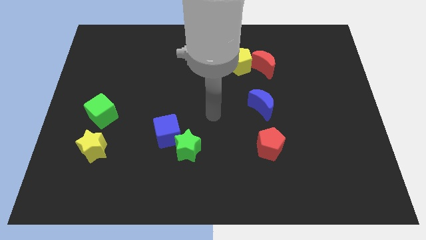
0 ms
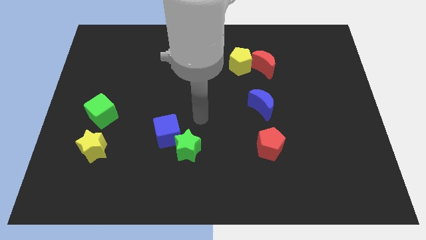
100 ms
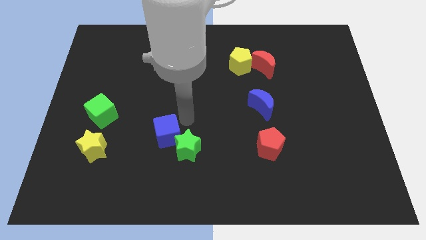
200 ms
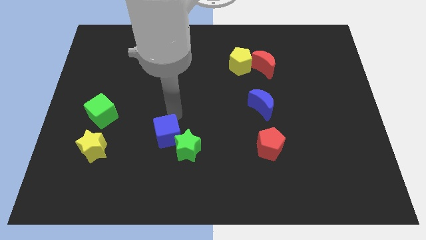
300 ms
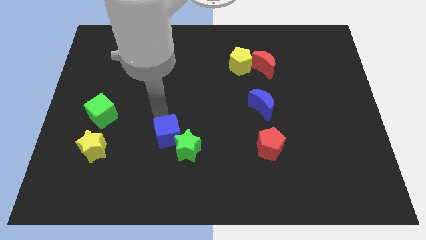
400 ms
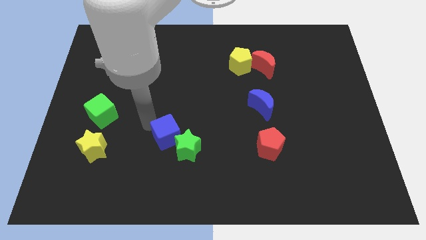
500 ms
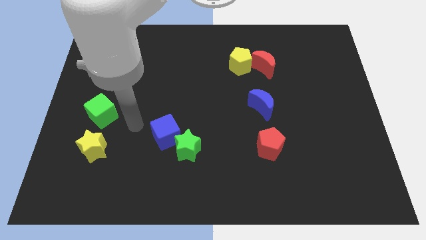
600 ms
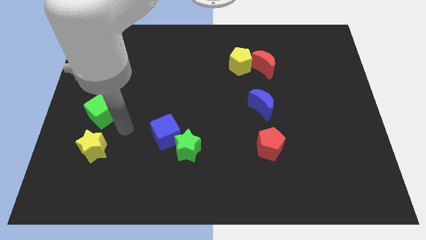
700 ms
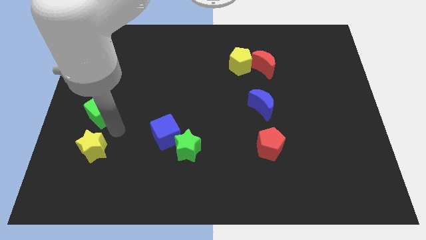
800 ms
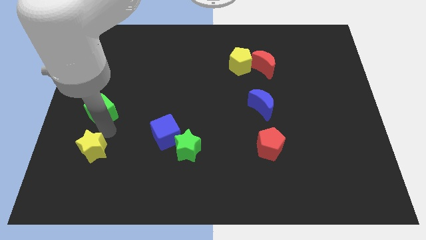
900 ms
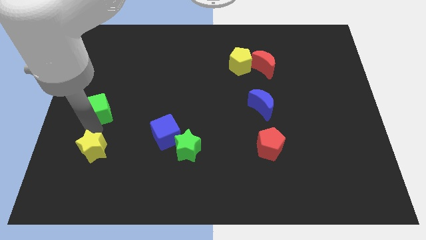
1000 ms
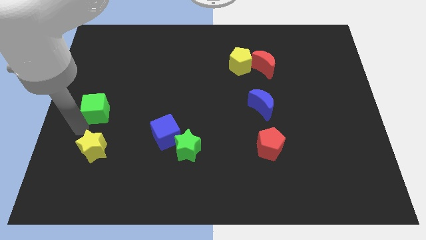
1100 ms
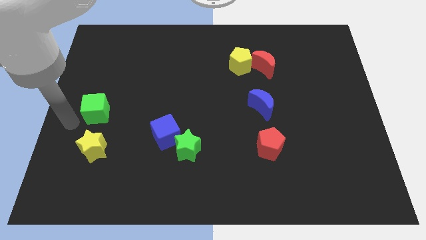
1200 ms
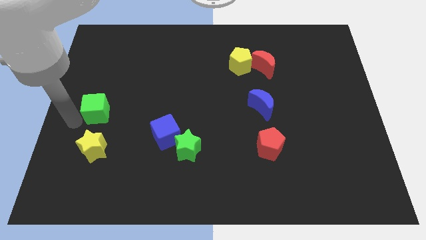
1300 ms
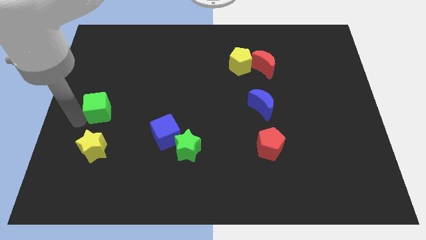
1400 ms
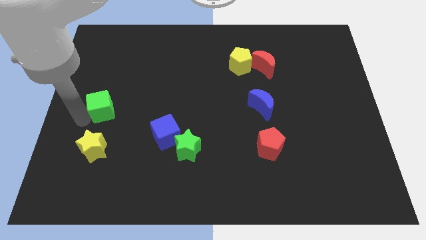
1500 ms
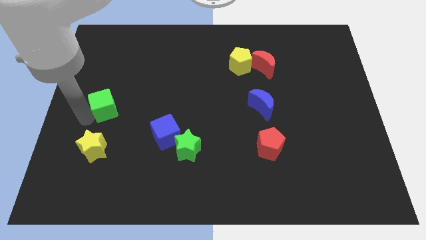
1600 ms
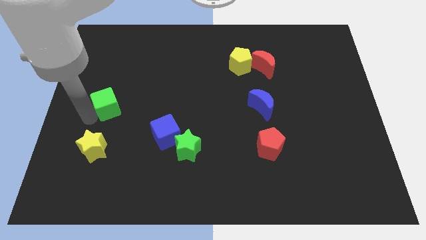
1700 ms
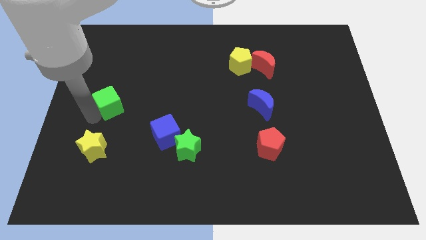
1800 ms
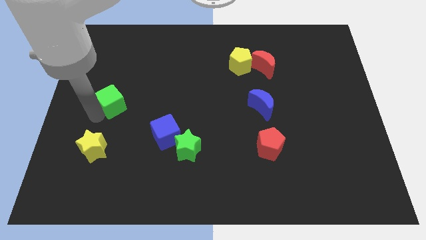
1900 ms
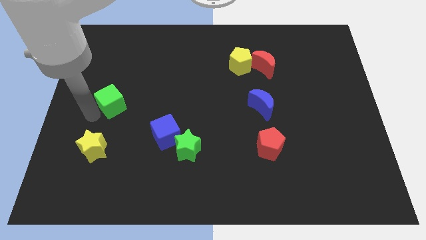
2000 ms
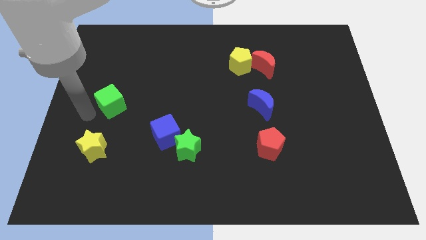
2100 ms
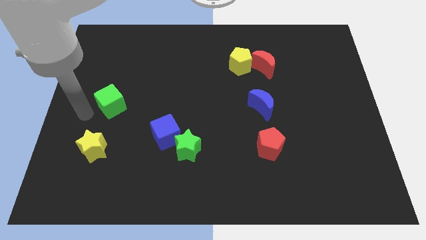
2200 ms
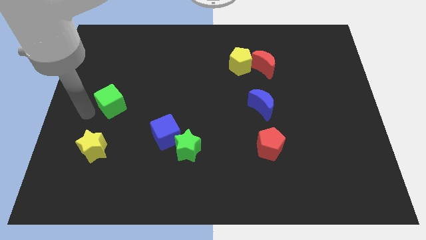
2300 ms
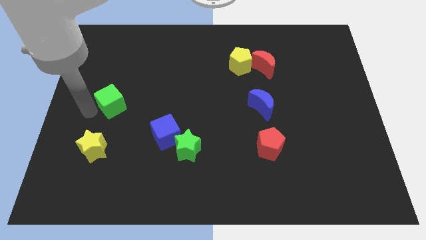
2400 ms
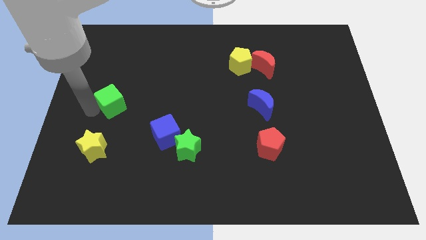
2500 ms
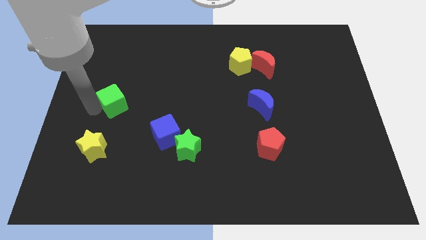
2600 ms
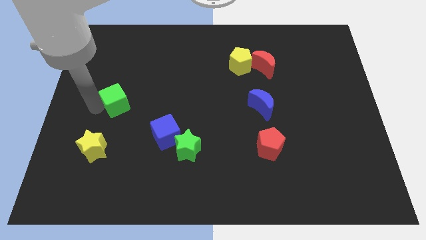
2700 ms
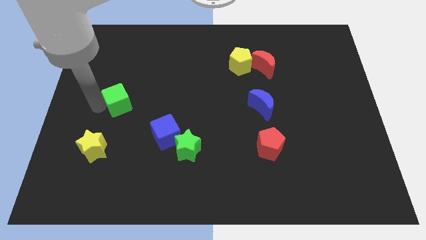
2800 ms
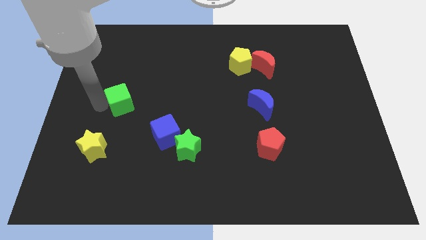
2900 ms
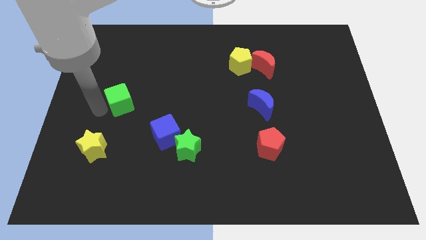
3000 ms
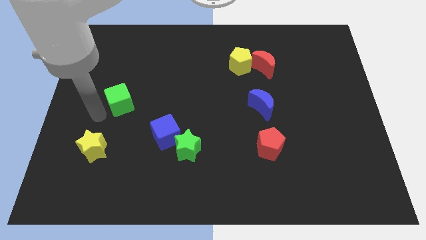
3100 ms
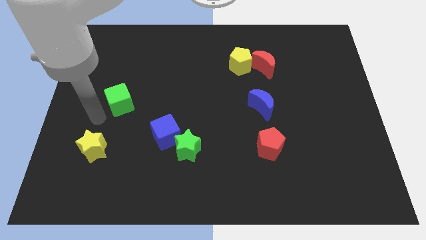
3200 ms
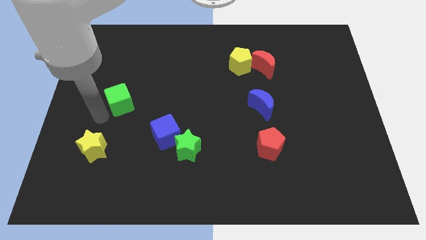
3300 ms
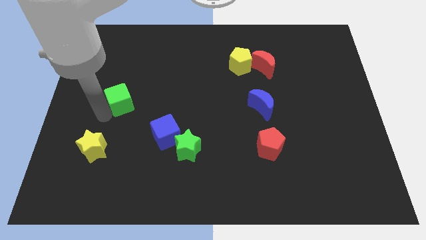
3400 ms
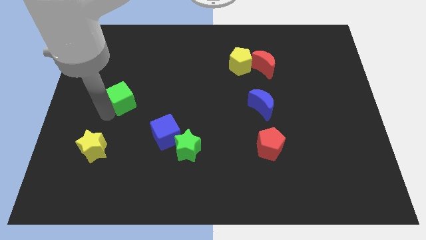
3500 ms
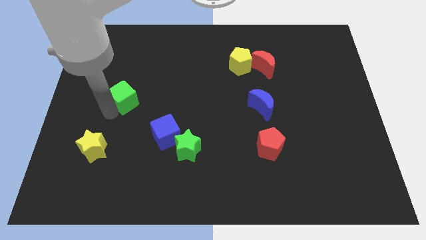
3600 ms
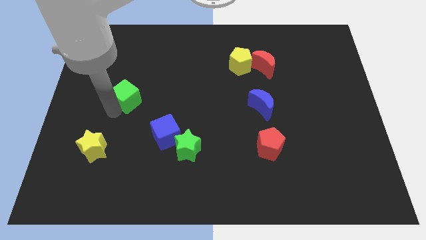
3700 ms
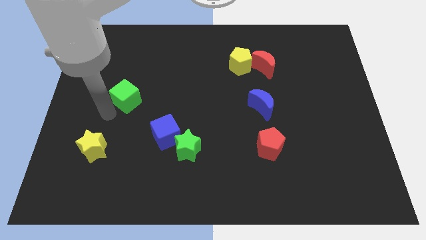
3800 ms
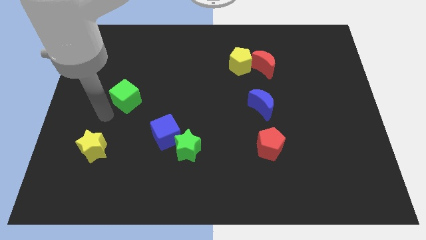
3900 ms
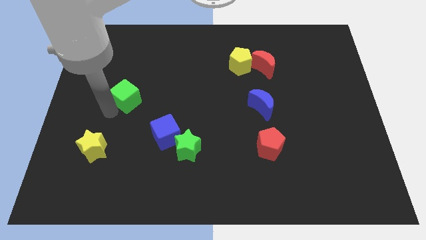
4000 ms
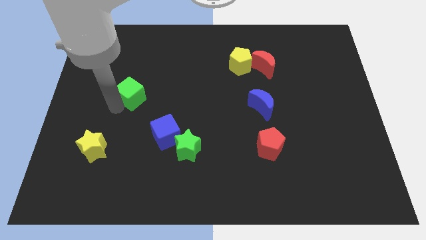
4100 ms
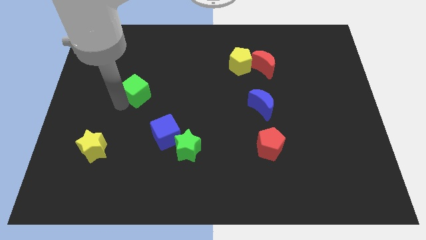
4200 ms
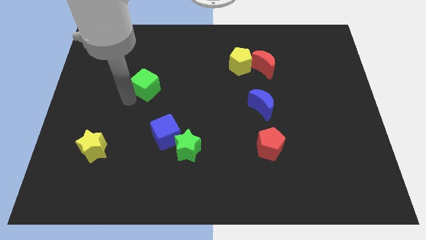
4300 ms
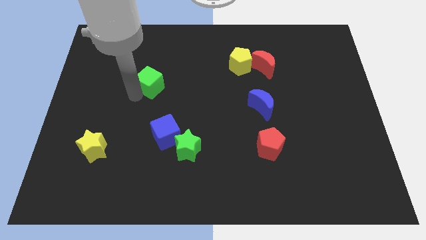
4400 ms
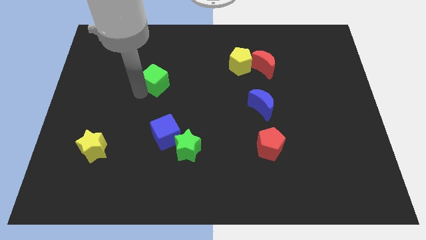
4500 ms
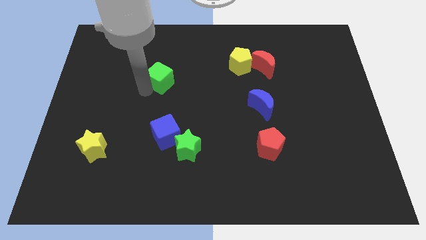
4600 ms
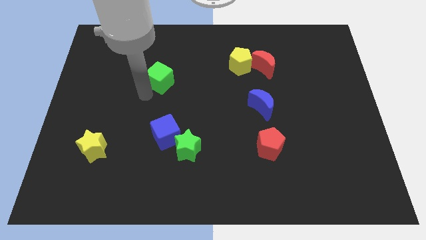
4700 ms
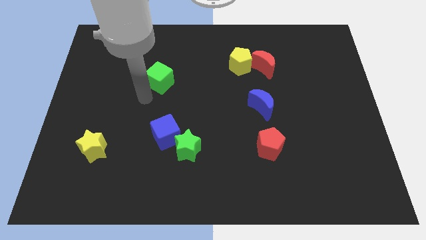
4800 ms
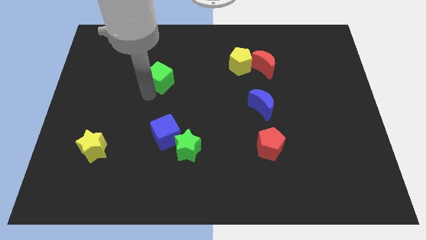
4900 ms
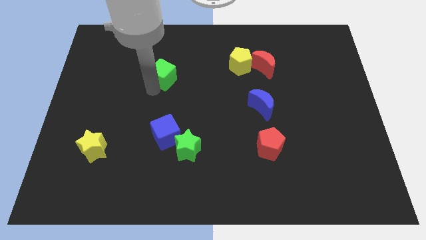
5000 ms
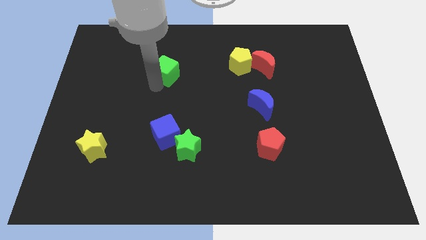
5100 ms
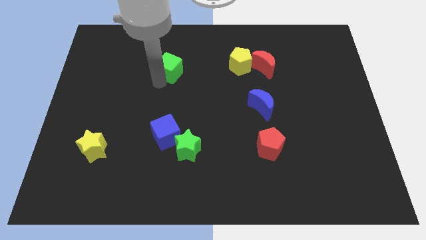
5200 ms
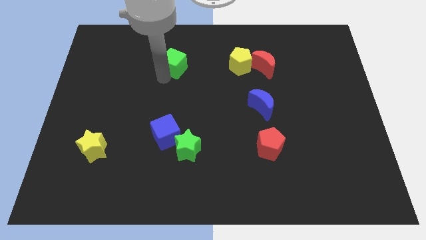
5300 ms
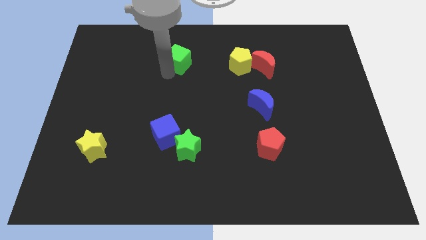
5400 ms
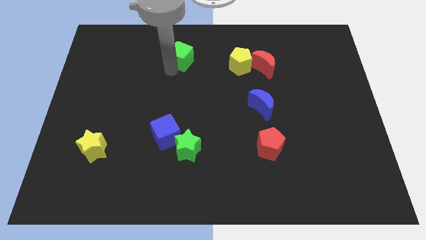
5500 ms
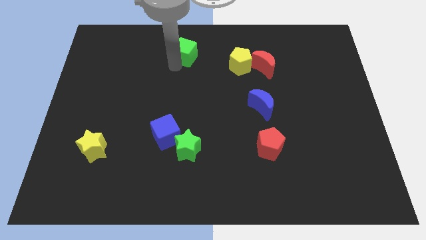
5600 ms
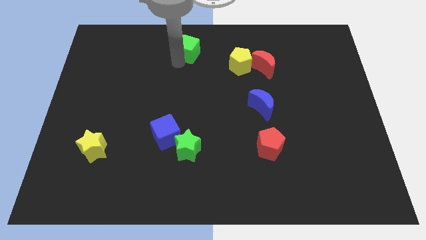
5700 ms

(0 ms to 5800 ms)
put the green cube to the towards your base

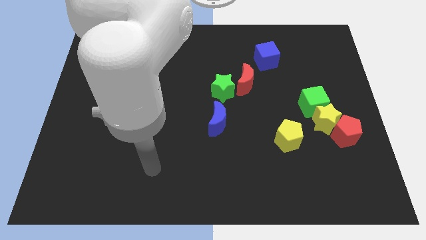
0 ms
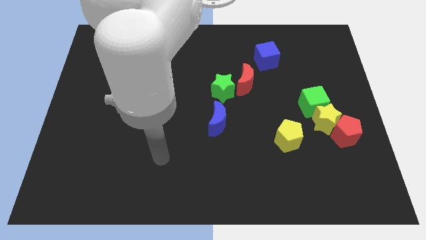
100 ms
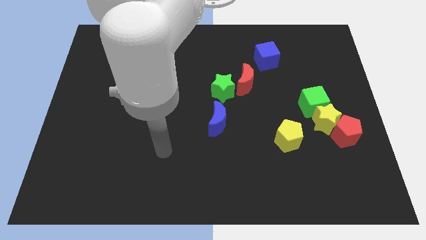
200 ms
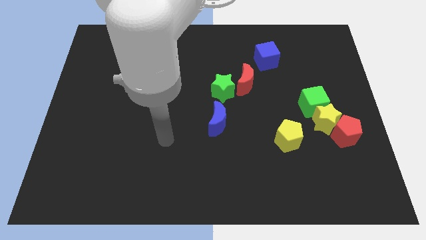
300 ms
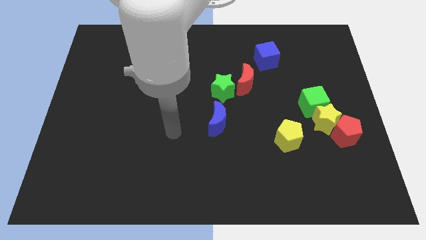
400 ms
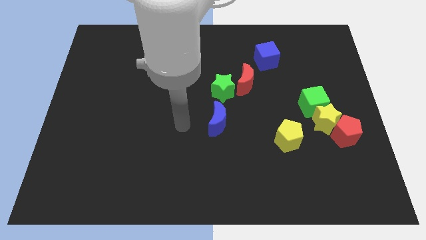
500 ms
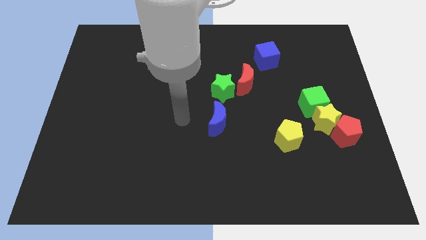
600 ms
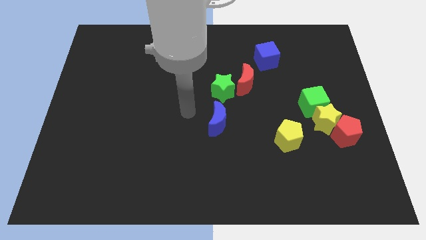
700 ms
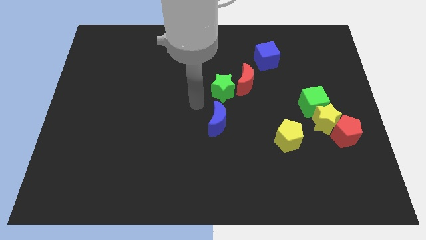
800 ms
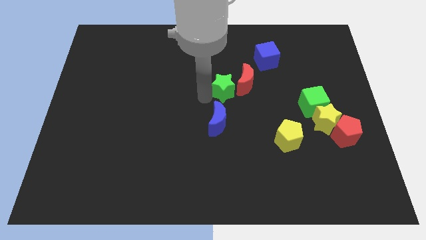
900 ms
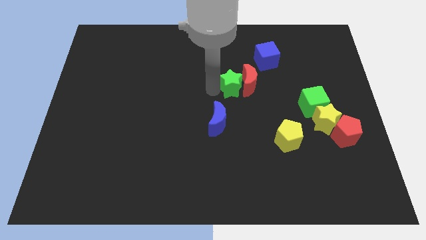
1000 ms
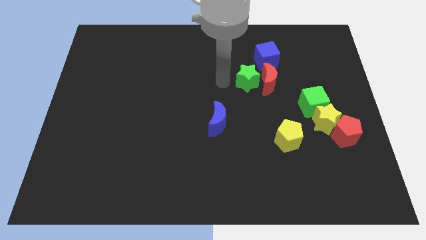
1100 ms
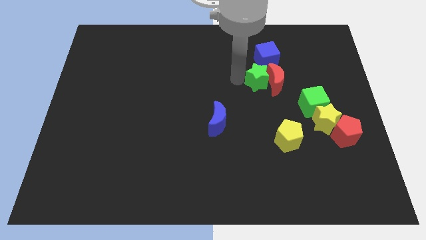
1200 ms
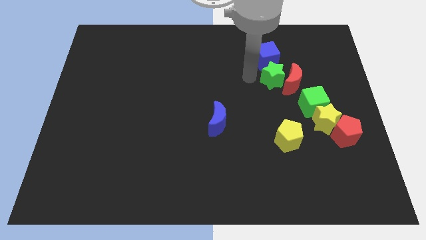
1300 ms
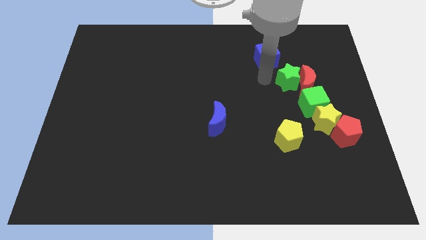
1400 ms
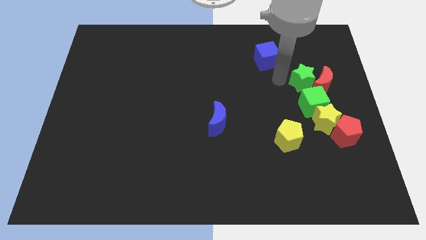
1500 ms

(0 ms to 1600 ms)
move the red moon to the right side of the board
